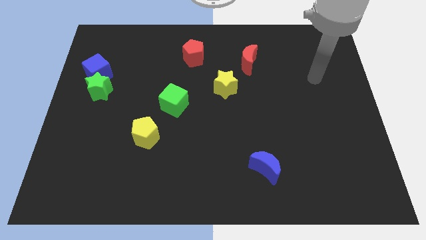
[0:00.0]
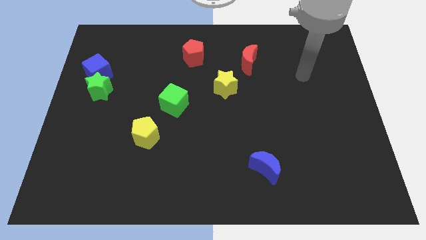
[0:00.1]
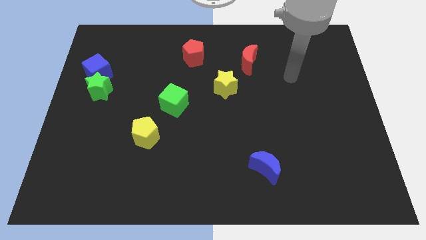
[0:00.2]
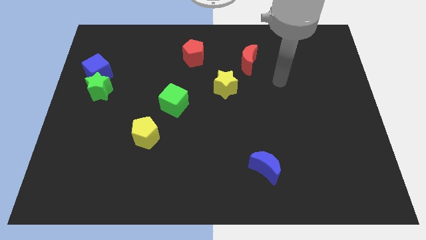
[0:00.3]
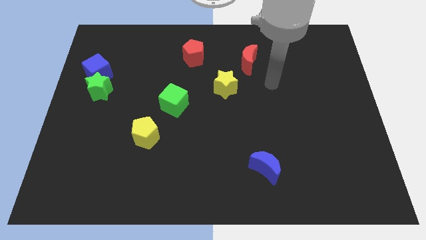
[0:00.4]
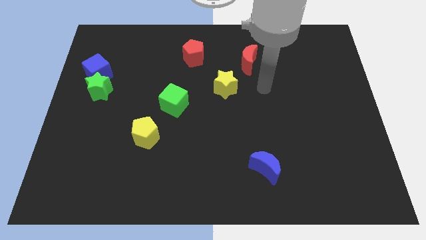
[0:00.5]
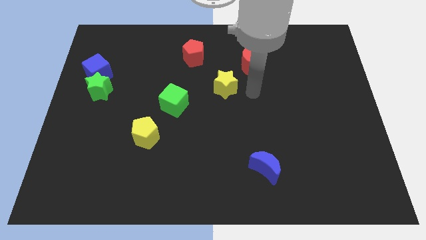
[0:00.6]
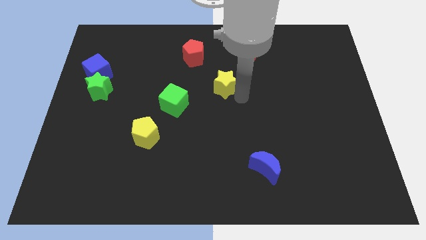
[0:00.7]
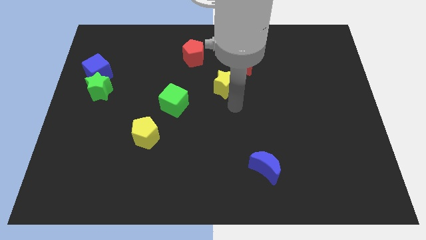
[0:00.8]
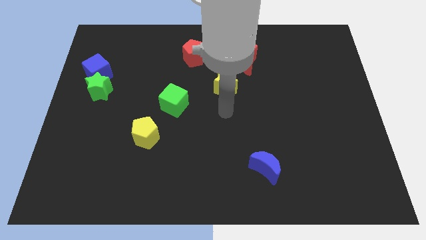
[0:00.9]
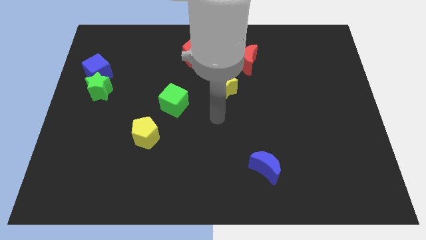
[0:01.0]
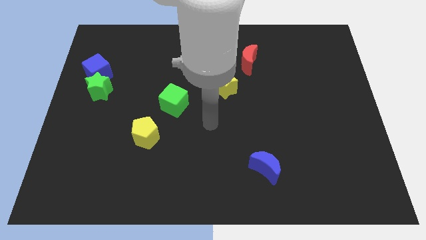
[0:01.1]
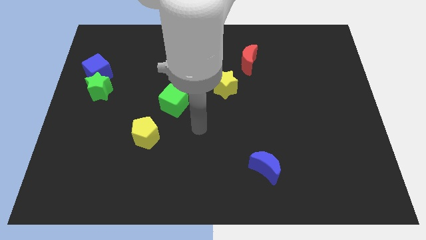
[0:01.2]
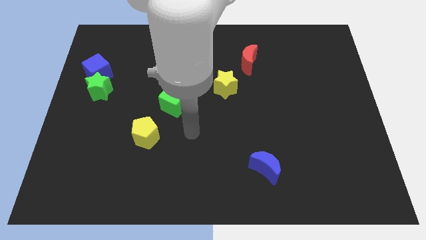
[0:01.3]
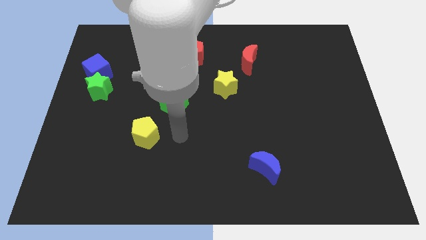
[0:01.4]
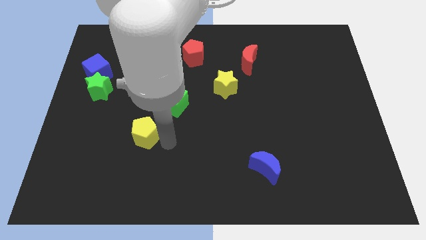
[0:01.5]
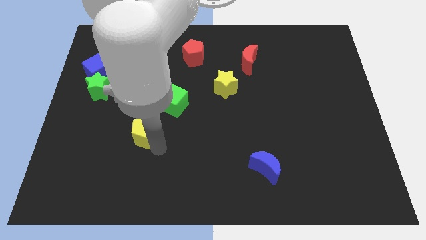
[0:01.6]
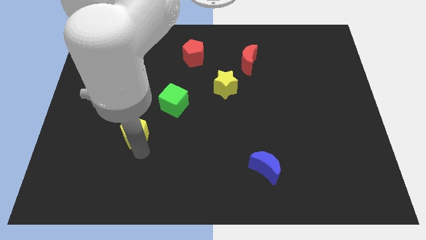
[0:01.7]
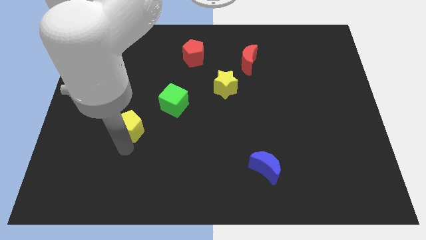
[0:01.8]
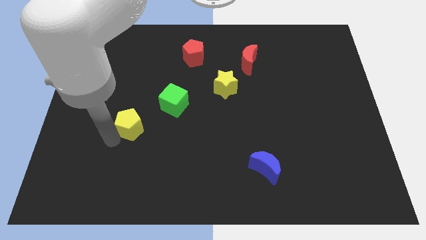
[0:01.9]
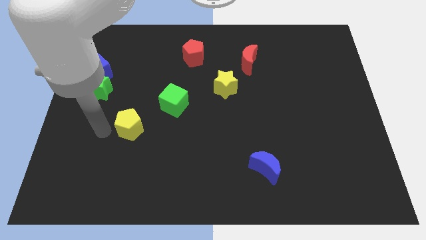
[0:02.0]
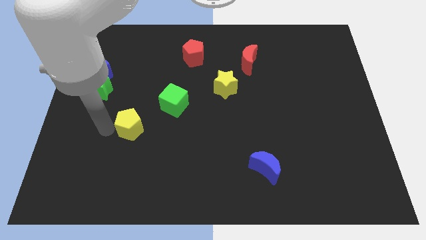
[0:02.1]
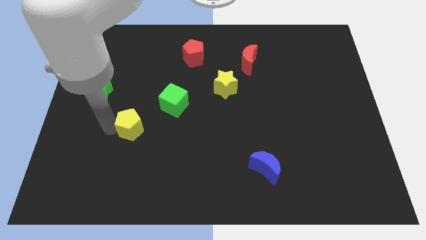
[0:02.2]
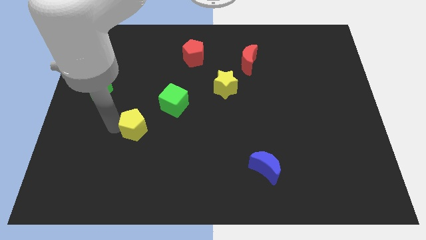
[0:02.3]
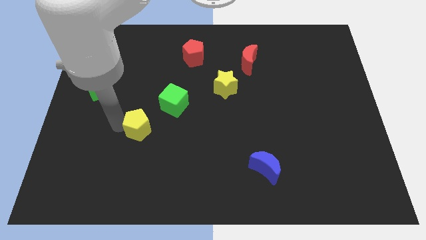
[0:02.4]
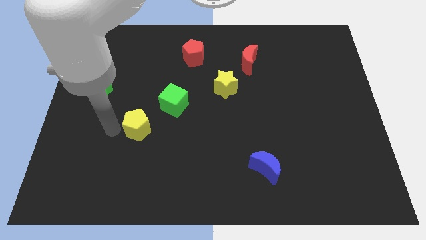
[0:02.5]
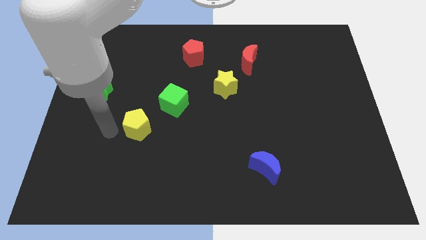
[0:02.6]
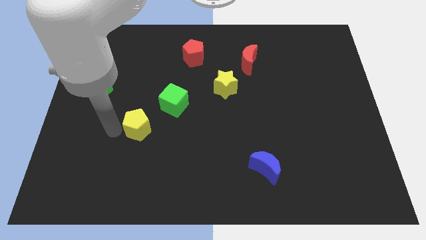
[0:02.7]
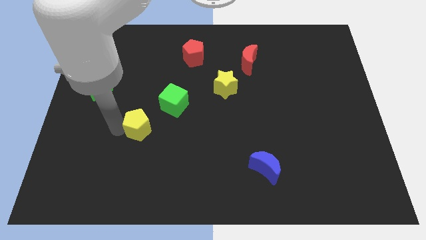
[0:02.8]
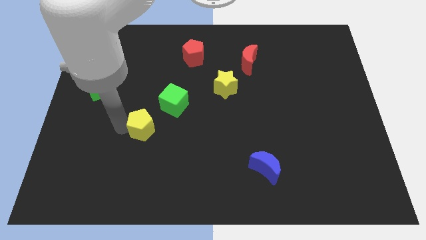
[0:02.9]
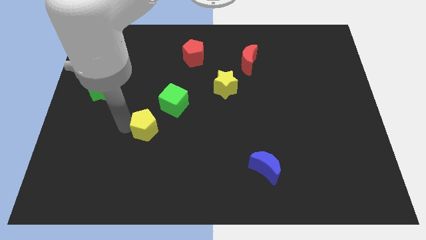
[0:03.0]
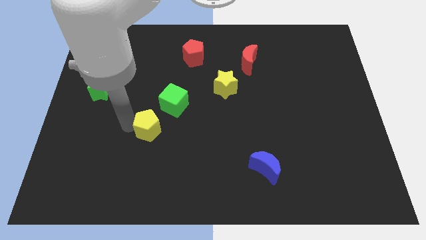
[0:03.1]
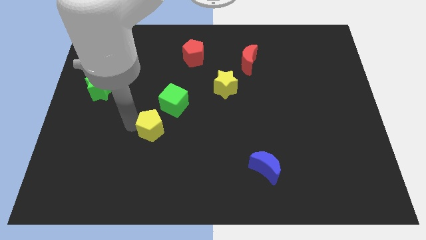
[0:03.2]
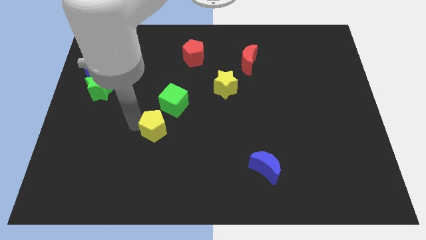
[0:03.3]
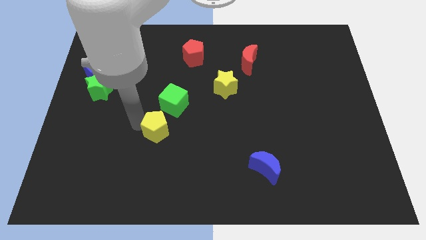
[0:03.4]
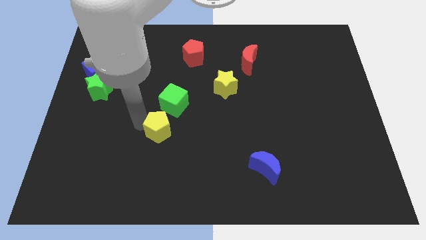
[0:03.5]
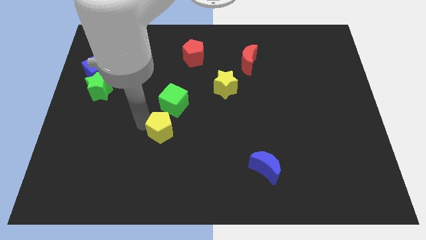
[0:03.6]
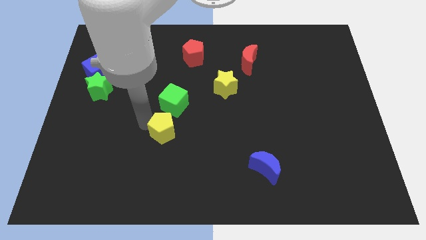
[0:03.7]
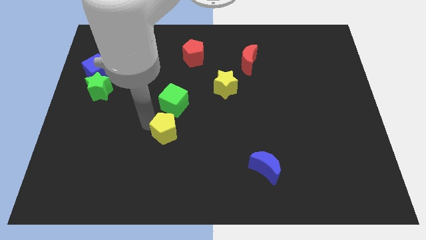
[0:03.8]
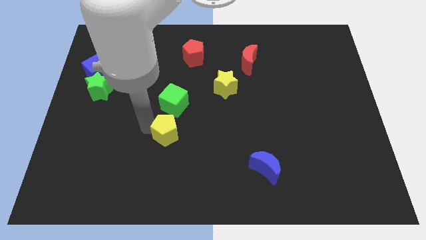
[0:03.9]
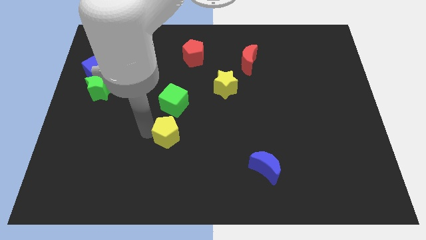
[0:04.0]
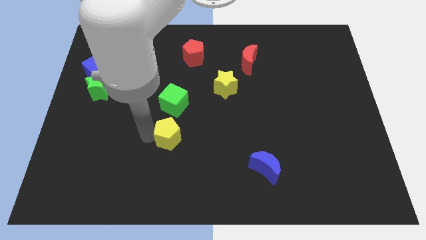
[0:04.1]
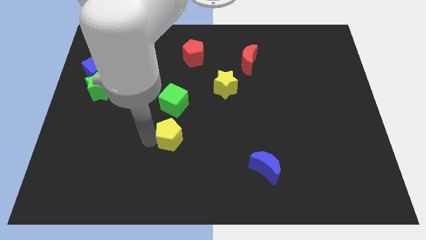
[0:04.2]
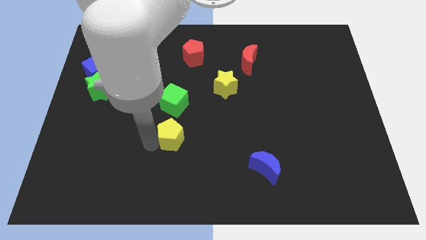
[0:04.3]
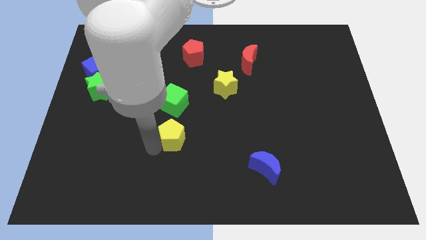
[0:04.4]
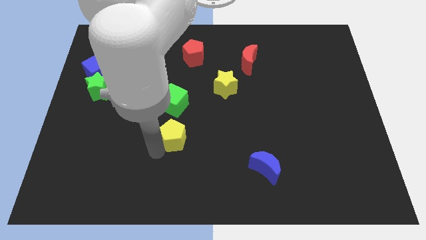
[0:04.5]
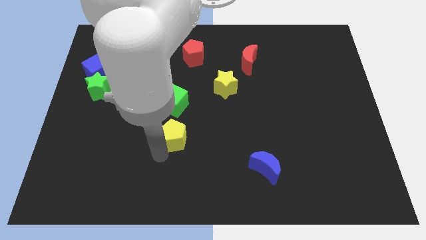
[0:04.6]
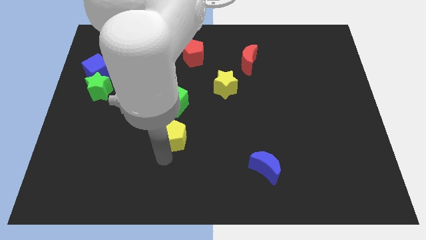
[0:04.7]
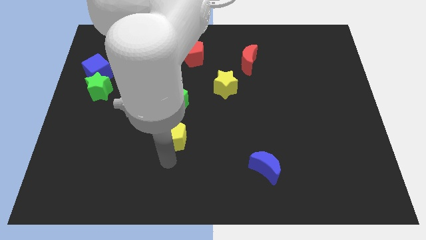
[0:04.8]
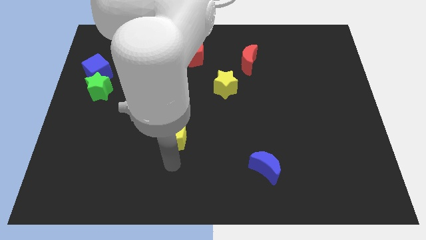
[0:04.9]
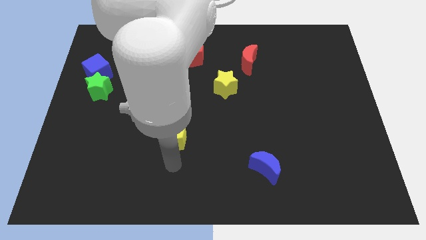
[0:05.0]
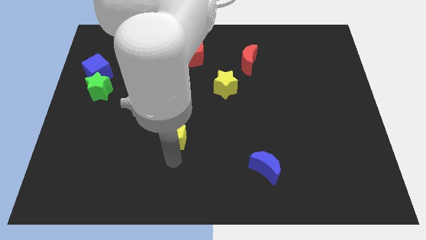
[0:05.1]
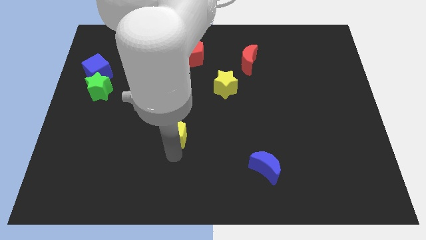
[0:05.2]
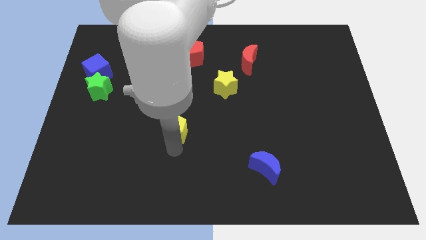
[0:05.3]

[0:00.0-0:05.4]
slide the yellow pentagon to the center
